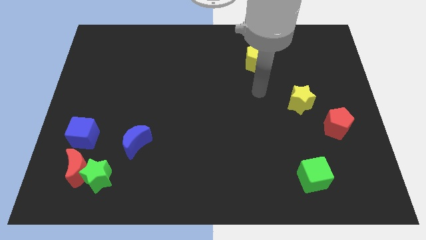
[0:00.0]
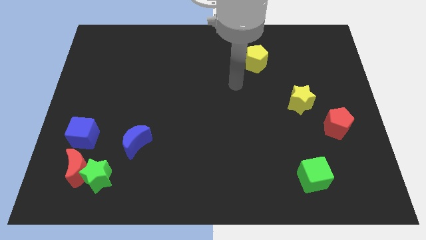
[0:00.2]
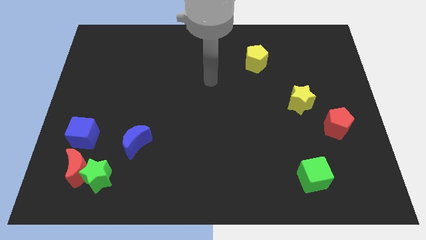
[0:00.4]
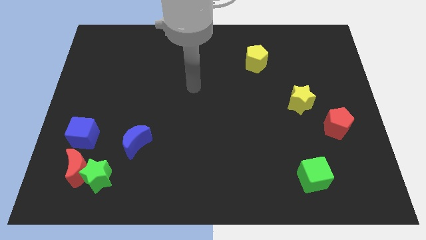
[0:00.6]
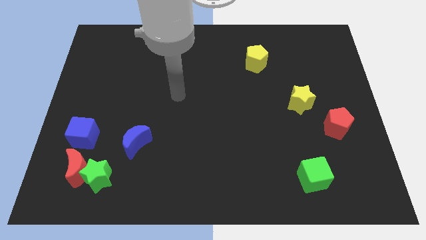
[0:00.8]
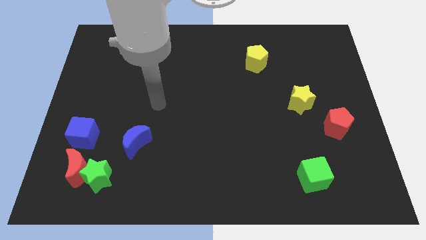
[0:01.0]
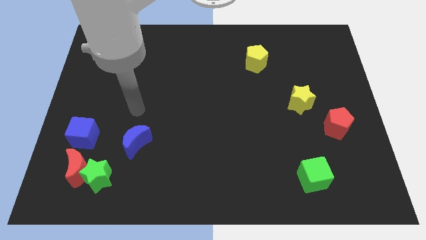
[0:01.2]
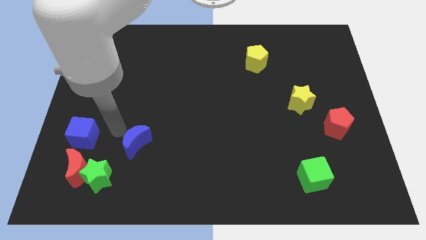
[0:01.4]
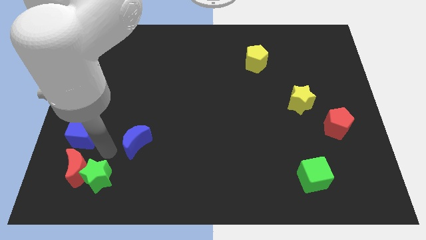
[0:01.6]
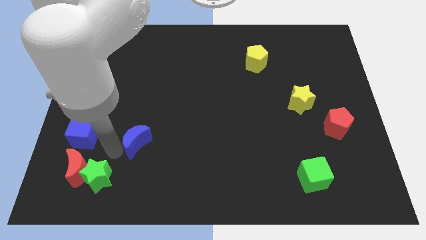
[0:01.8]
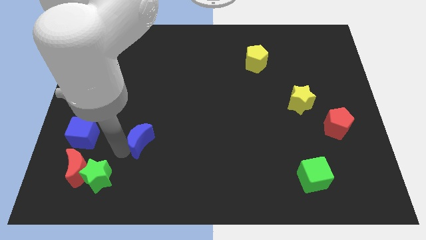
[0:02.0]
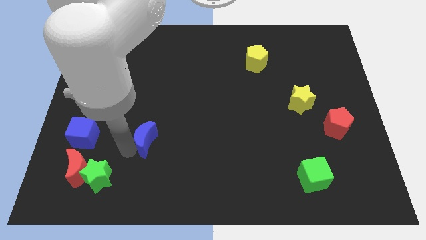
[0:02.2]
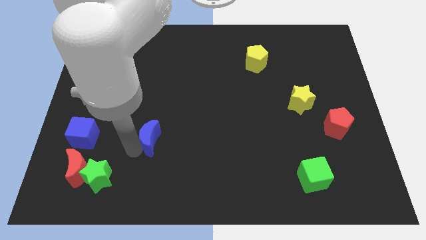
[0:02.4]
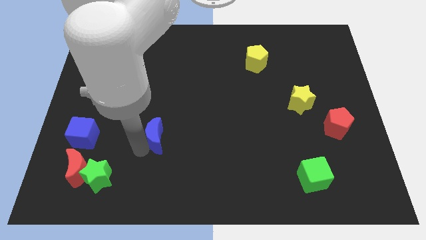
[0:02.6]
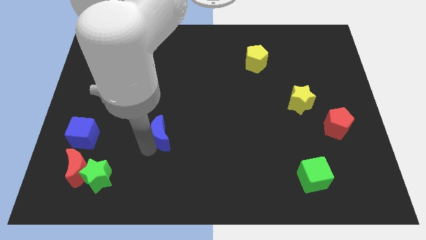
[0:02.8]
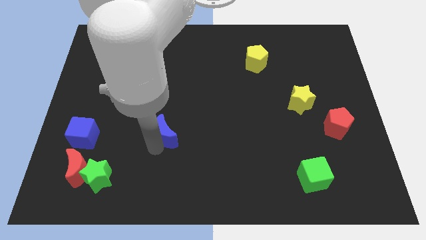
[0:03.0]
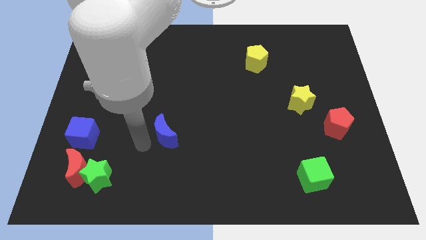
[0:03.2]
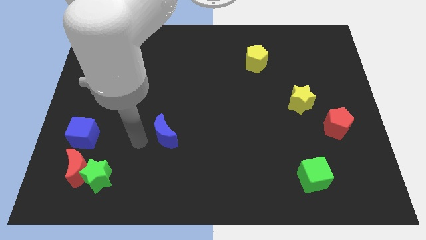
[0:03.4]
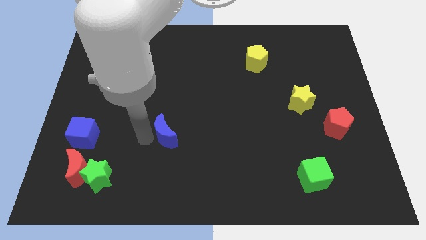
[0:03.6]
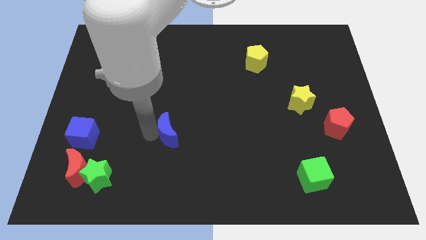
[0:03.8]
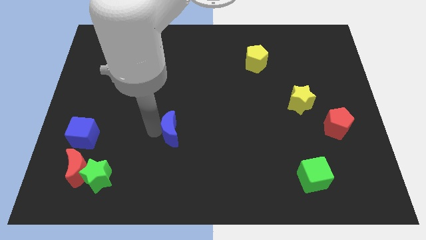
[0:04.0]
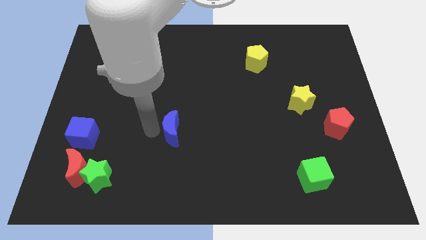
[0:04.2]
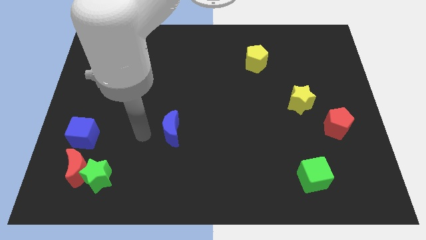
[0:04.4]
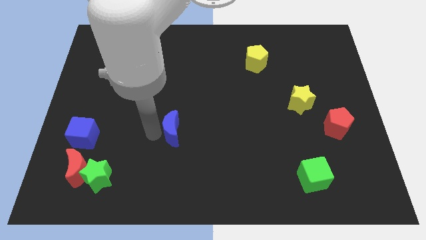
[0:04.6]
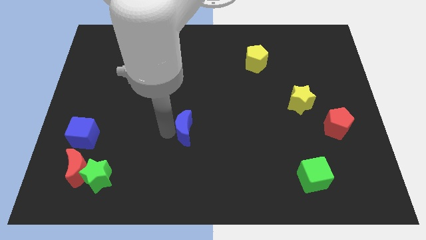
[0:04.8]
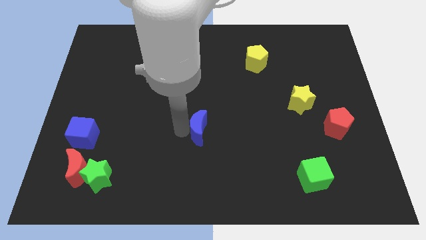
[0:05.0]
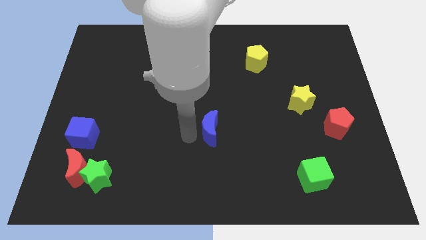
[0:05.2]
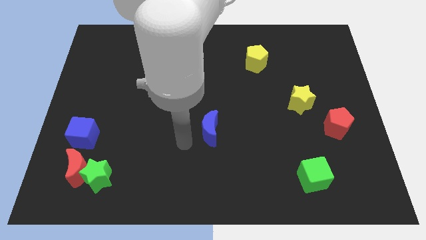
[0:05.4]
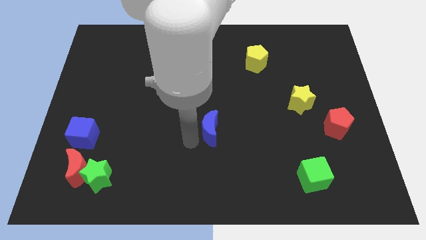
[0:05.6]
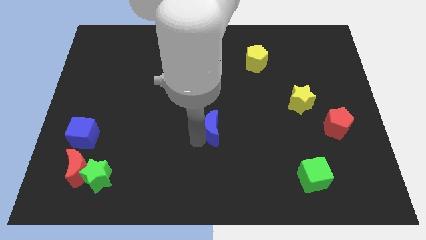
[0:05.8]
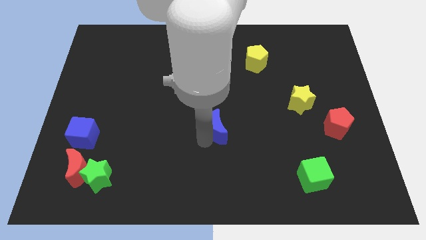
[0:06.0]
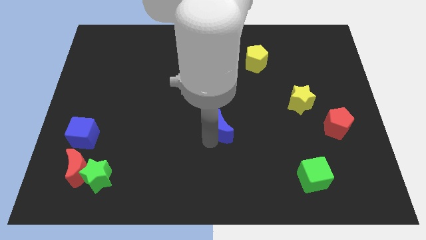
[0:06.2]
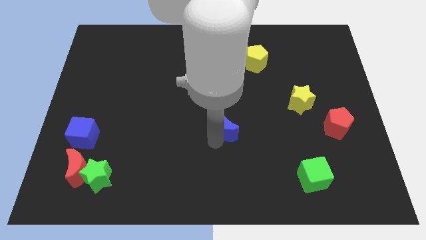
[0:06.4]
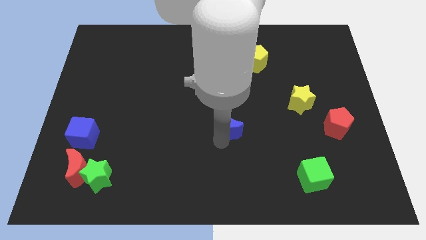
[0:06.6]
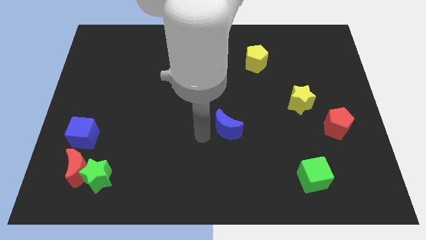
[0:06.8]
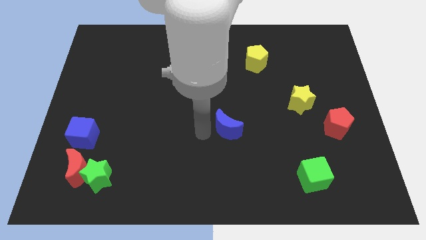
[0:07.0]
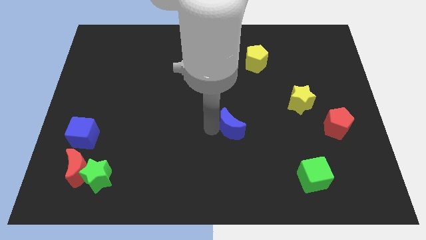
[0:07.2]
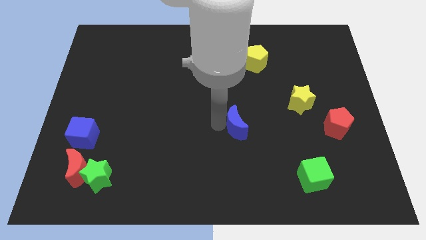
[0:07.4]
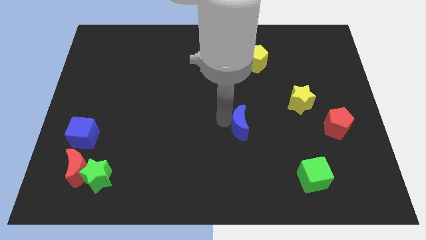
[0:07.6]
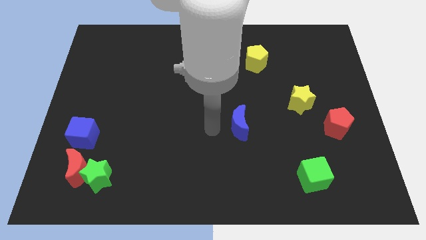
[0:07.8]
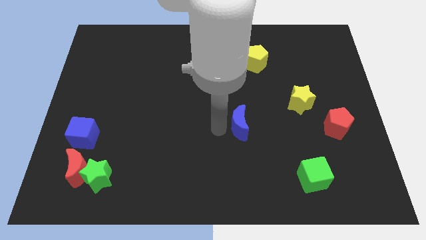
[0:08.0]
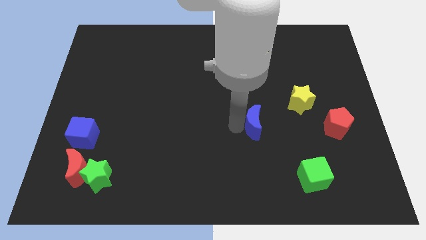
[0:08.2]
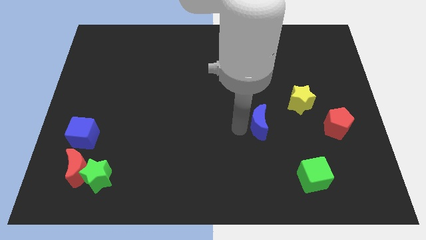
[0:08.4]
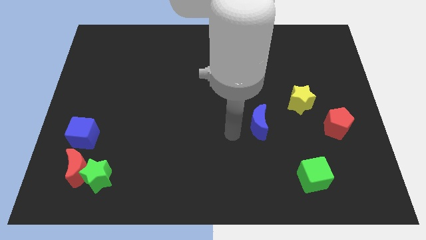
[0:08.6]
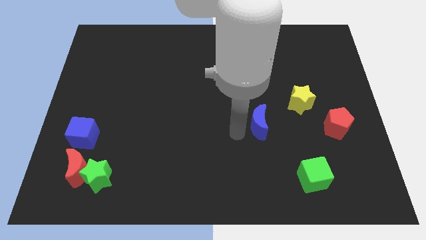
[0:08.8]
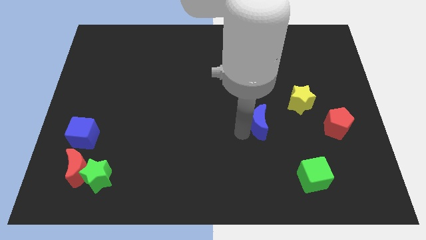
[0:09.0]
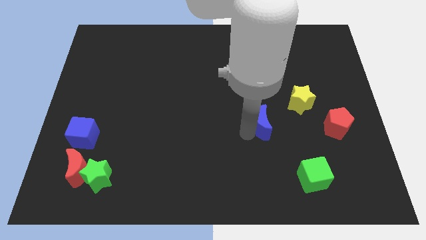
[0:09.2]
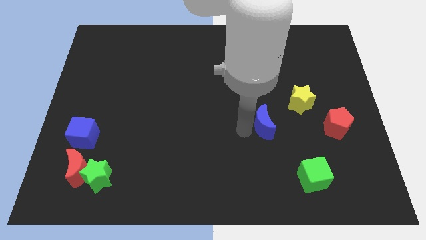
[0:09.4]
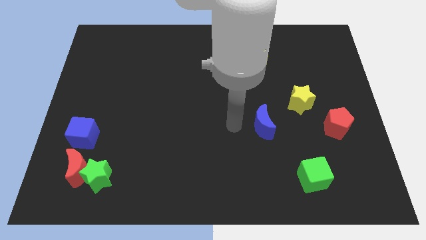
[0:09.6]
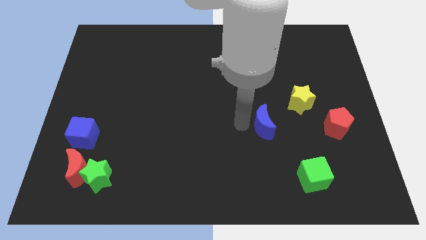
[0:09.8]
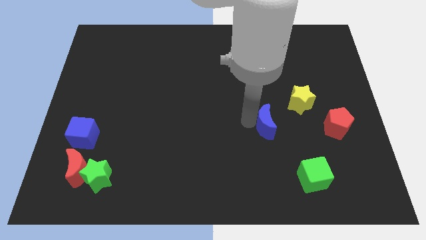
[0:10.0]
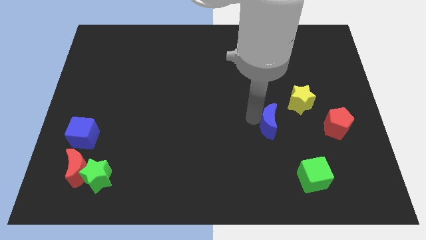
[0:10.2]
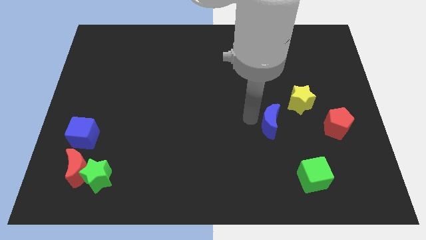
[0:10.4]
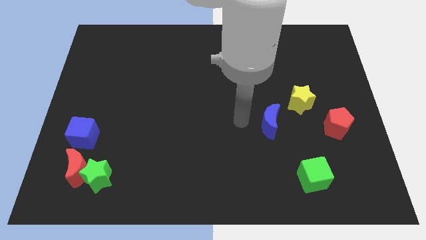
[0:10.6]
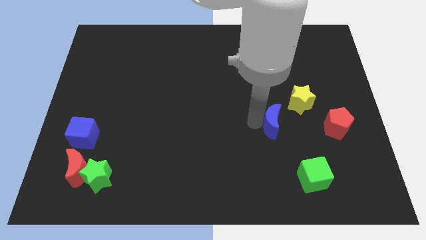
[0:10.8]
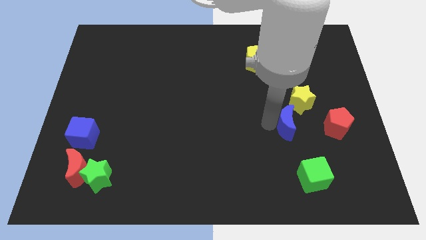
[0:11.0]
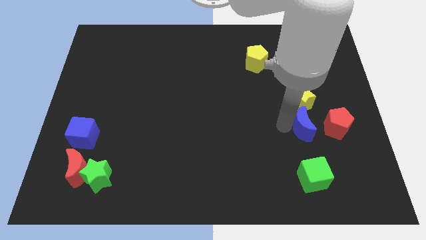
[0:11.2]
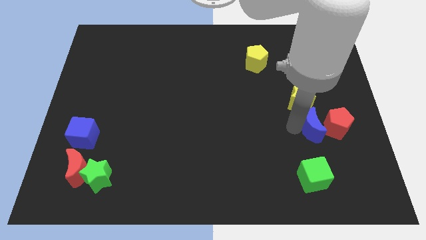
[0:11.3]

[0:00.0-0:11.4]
push the blue moon towards the red pentagon

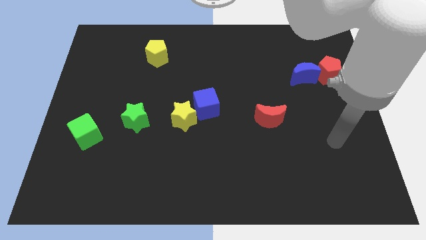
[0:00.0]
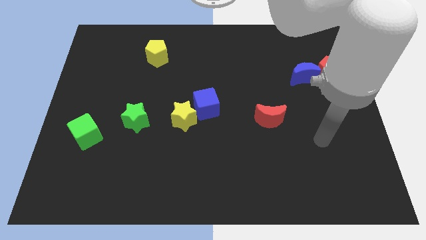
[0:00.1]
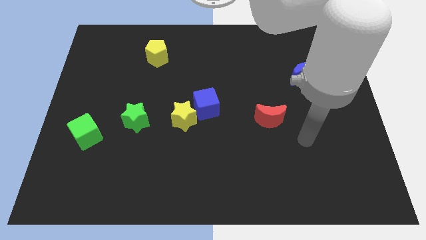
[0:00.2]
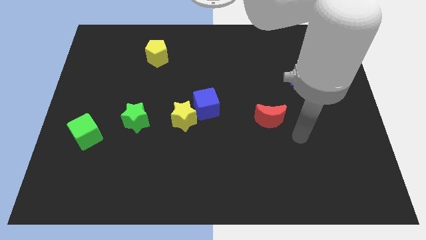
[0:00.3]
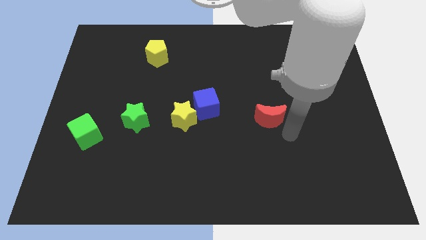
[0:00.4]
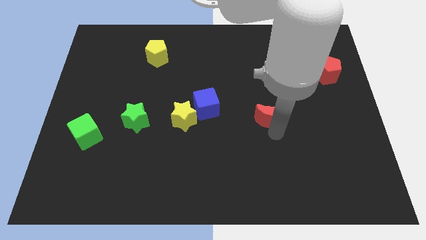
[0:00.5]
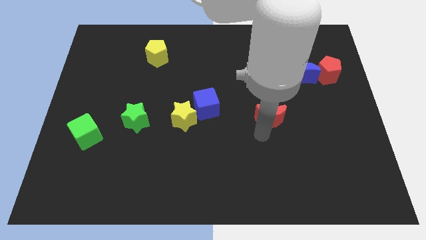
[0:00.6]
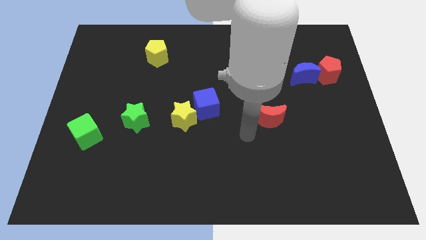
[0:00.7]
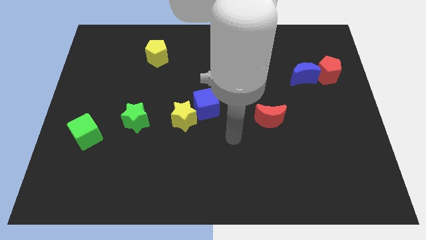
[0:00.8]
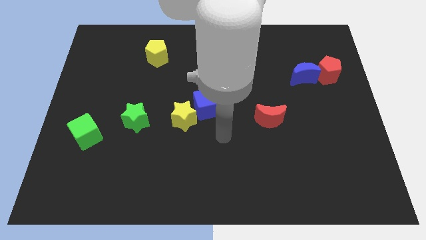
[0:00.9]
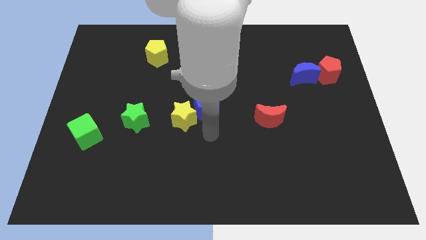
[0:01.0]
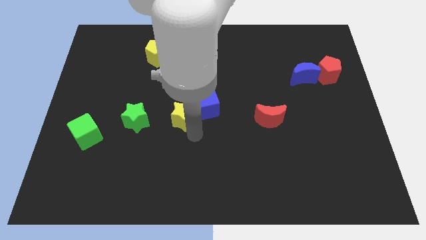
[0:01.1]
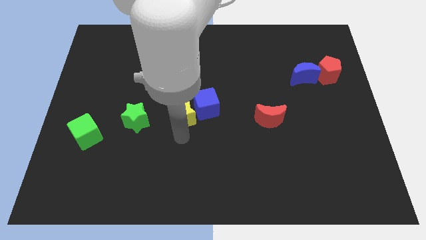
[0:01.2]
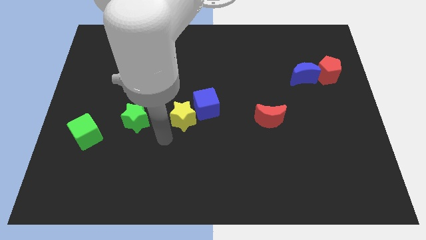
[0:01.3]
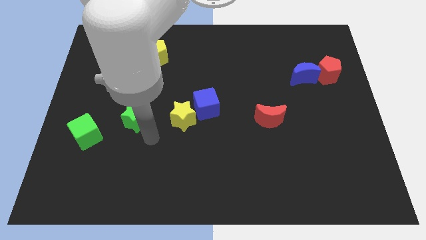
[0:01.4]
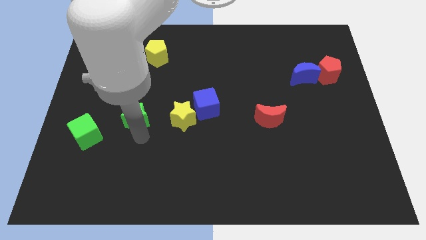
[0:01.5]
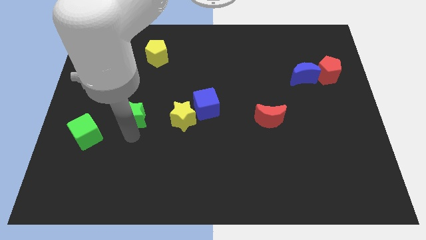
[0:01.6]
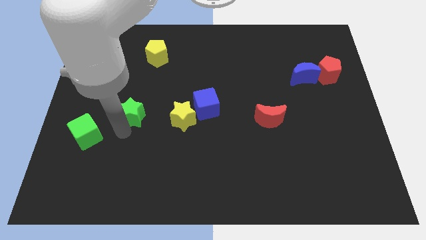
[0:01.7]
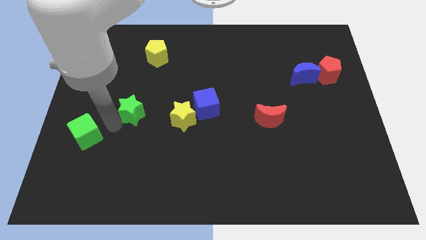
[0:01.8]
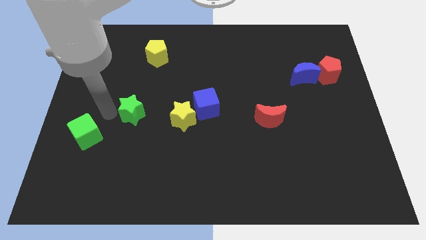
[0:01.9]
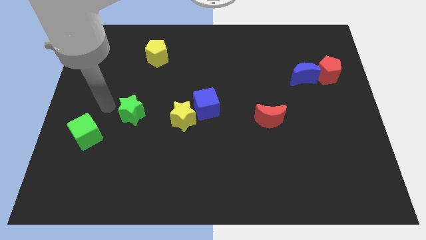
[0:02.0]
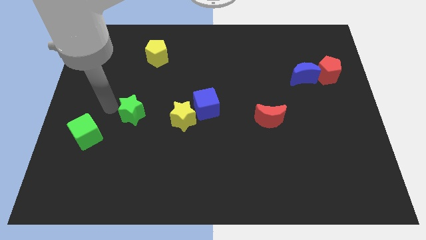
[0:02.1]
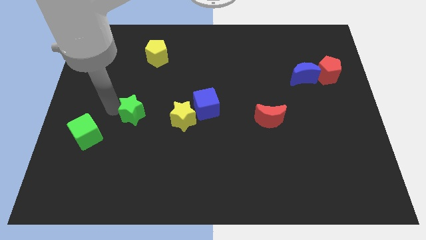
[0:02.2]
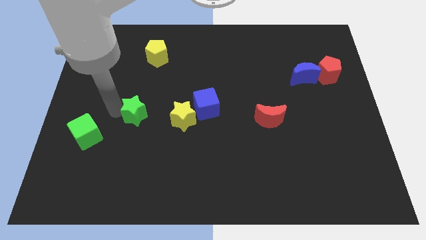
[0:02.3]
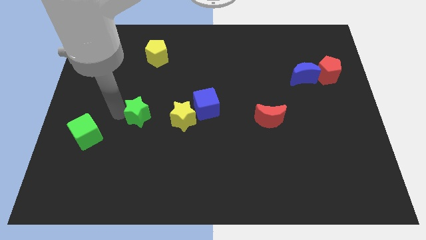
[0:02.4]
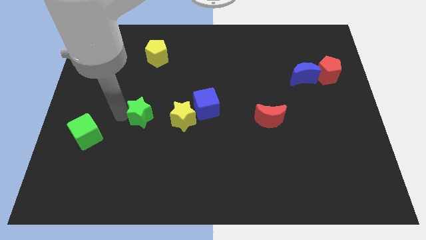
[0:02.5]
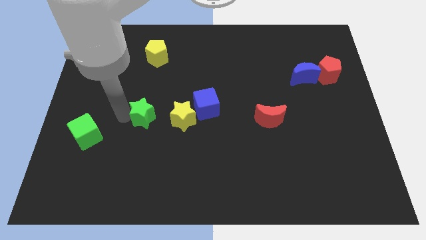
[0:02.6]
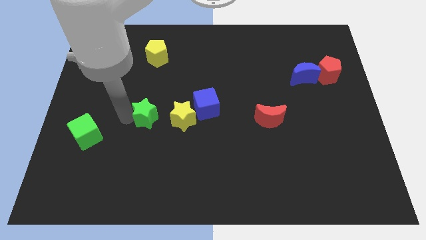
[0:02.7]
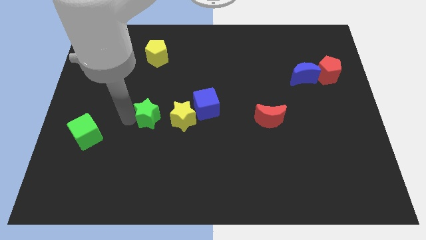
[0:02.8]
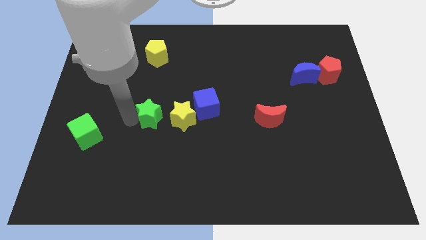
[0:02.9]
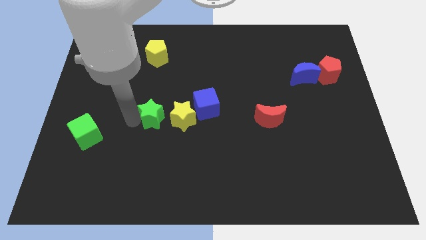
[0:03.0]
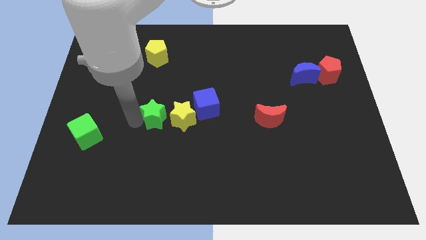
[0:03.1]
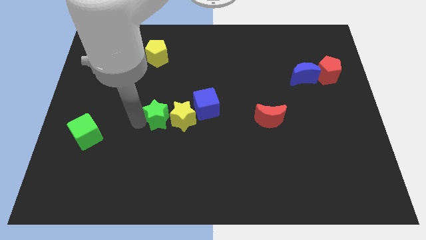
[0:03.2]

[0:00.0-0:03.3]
move the green star close to the yellow star
